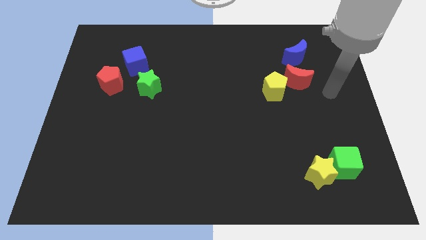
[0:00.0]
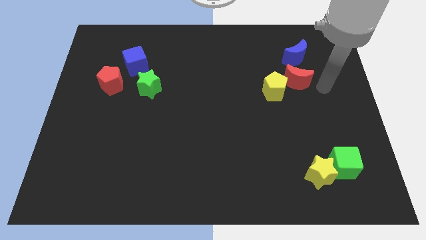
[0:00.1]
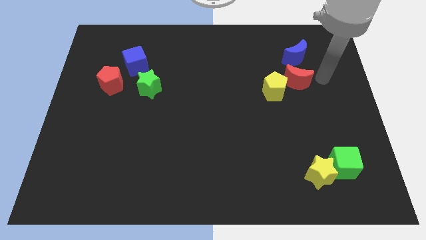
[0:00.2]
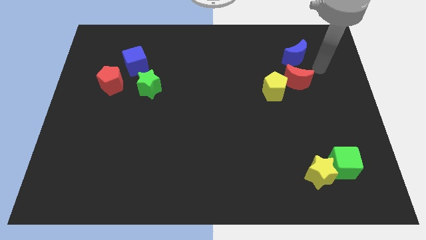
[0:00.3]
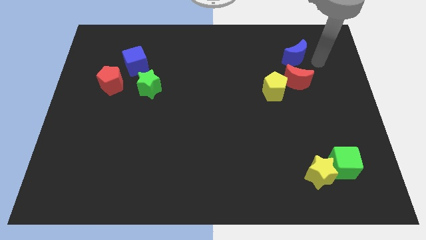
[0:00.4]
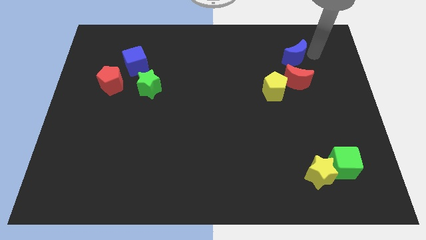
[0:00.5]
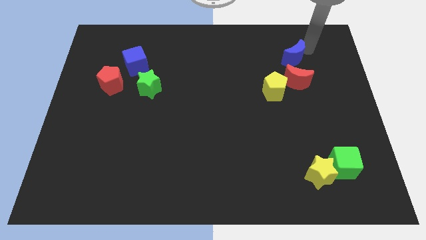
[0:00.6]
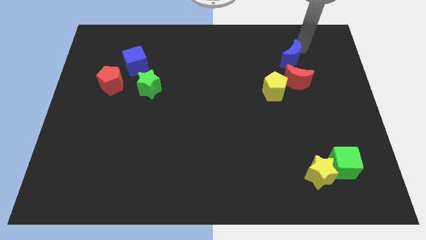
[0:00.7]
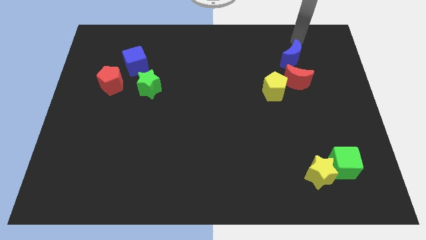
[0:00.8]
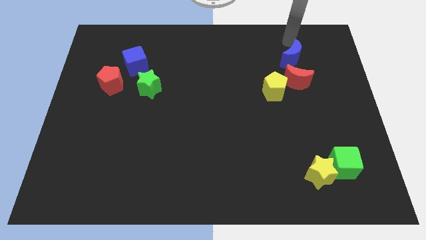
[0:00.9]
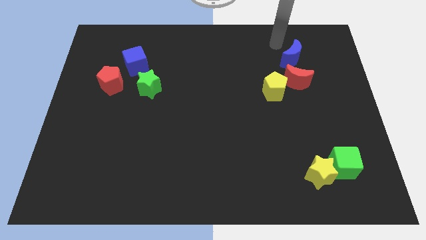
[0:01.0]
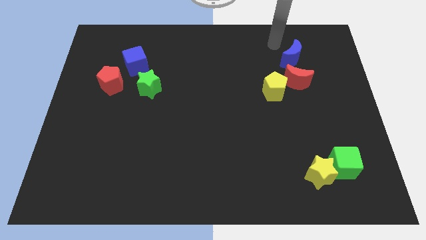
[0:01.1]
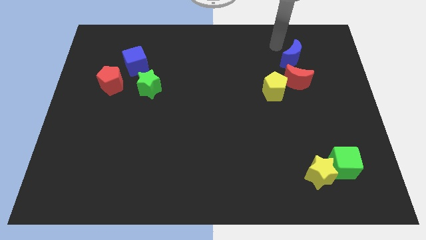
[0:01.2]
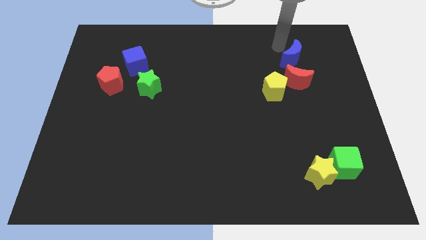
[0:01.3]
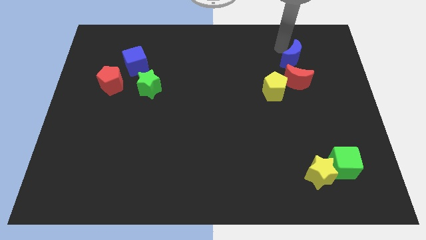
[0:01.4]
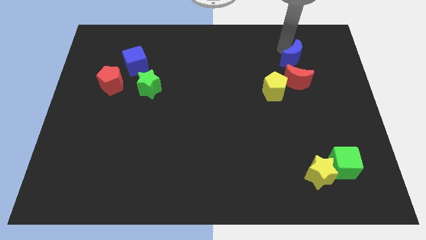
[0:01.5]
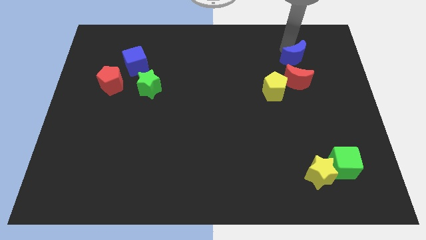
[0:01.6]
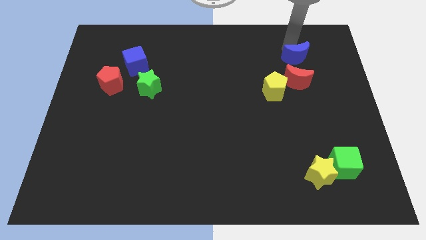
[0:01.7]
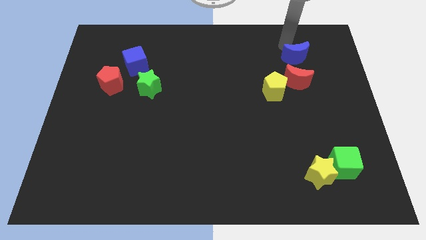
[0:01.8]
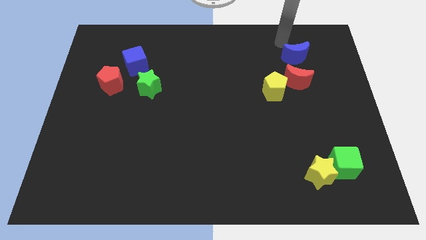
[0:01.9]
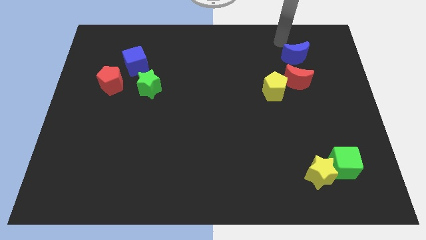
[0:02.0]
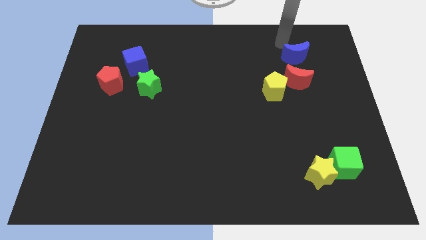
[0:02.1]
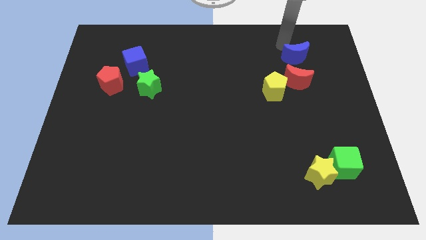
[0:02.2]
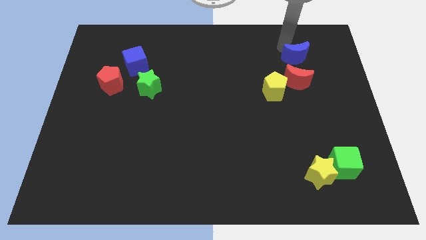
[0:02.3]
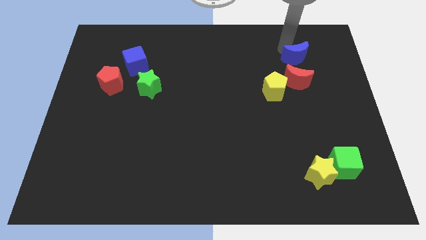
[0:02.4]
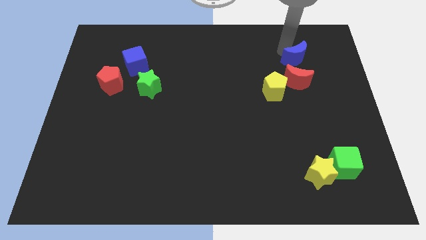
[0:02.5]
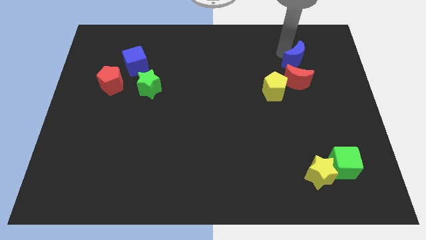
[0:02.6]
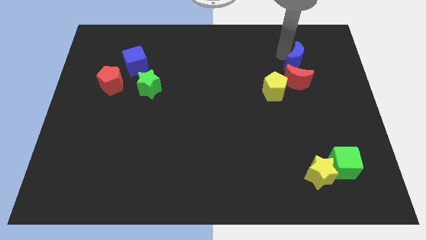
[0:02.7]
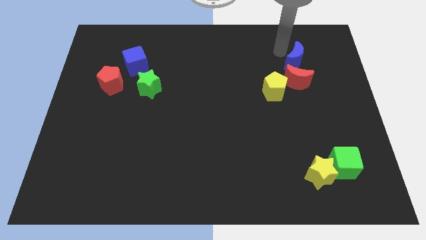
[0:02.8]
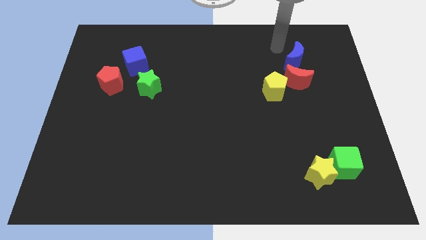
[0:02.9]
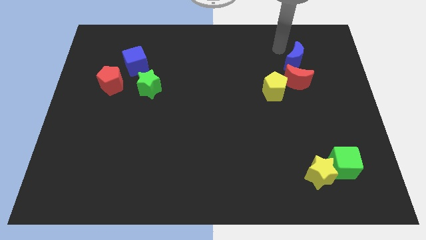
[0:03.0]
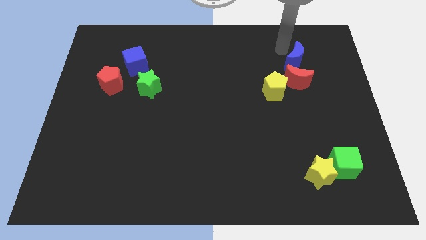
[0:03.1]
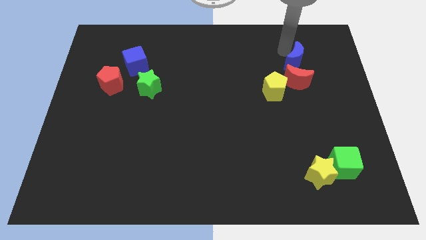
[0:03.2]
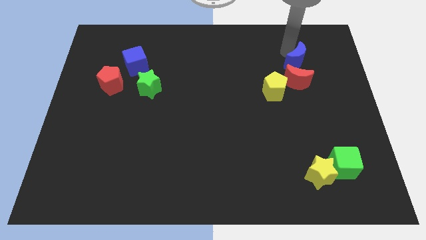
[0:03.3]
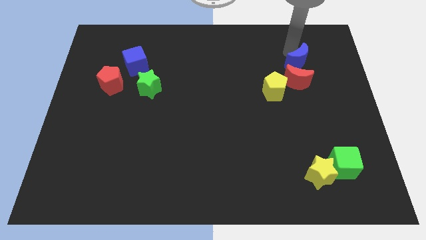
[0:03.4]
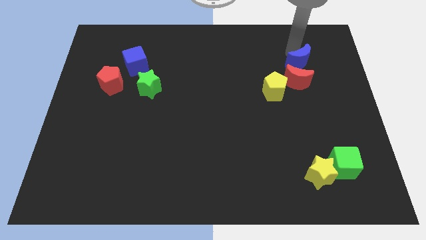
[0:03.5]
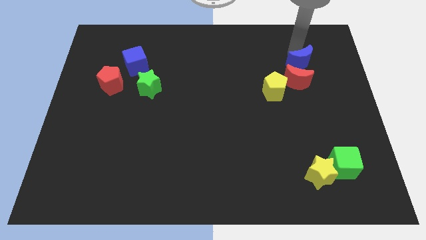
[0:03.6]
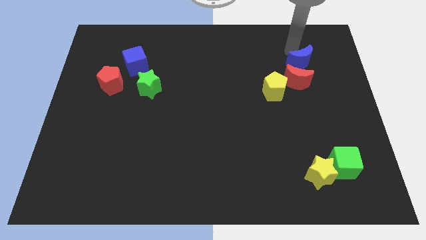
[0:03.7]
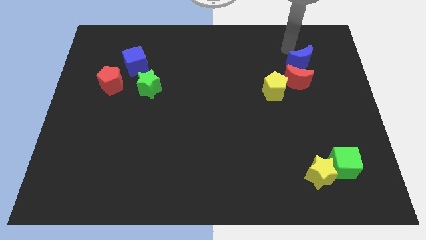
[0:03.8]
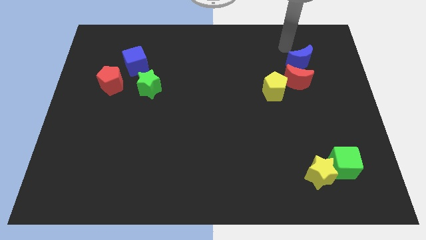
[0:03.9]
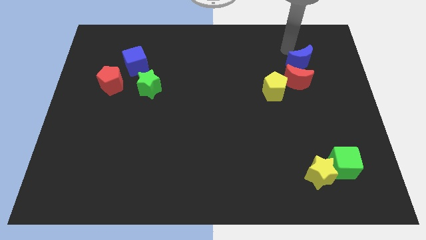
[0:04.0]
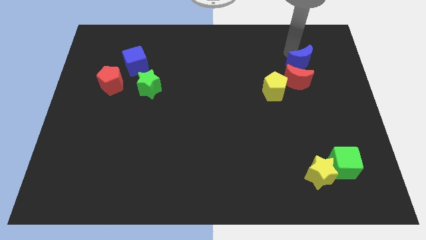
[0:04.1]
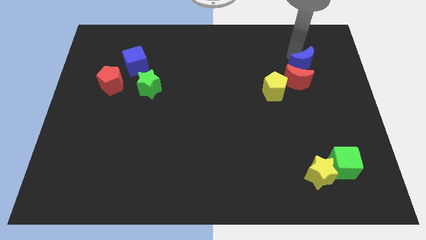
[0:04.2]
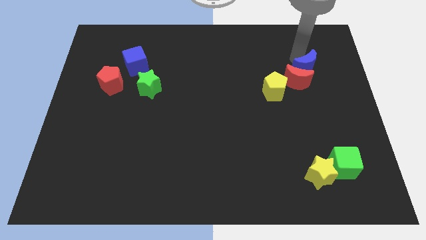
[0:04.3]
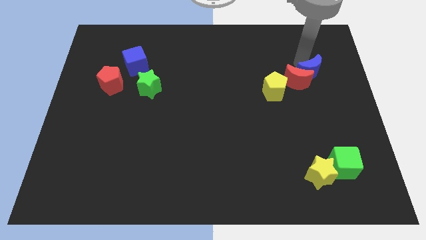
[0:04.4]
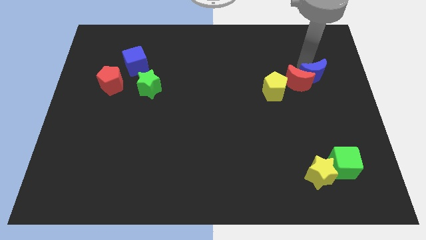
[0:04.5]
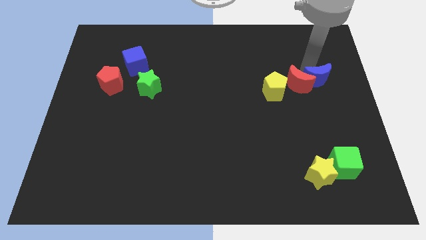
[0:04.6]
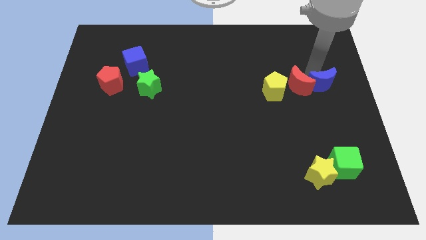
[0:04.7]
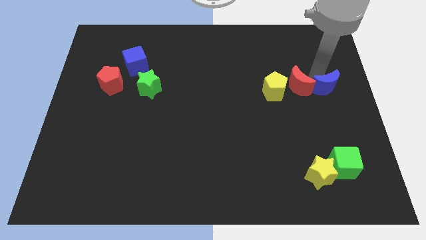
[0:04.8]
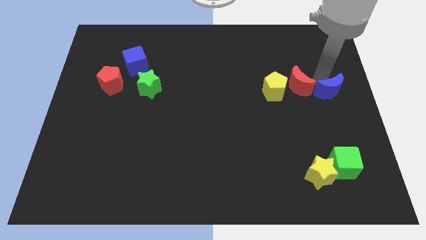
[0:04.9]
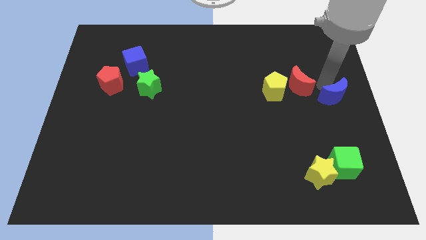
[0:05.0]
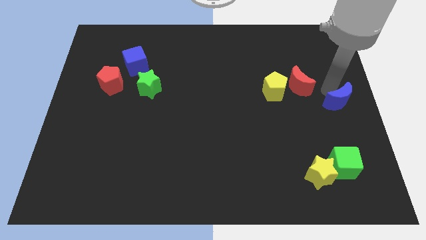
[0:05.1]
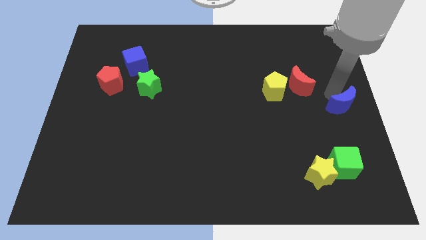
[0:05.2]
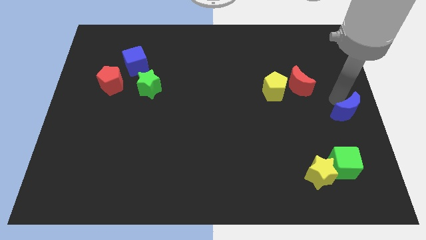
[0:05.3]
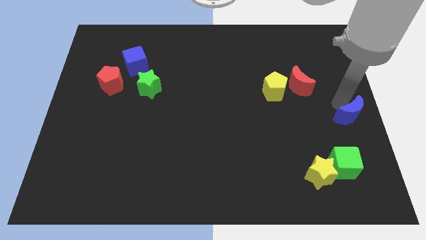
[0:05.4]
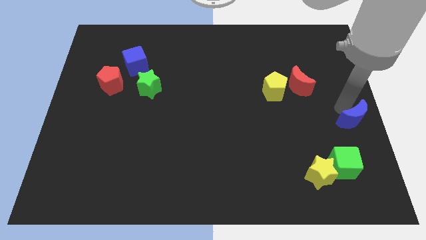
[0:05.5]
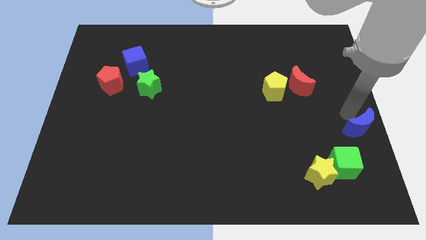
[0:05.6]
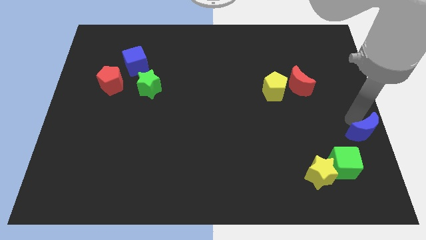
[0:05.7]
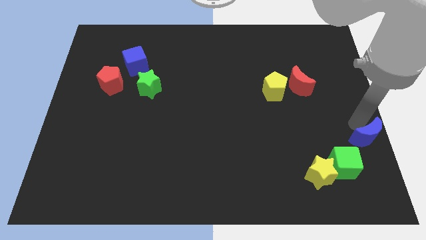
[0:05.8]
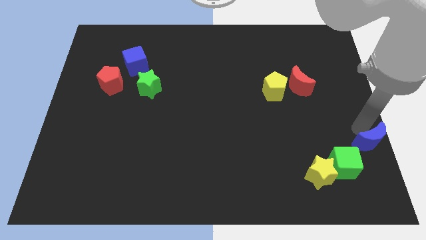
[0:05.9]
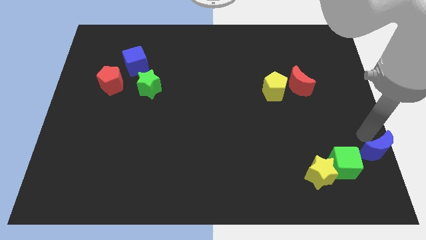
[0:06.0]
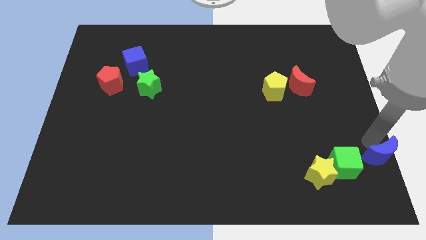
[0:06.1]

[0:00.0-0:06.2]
put the blue moon to the bottom right

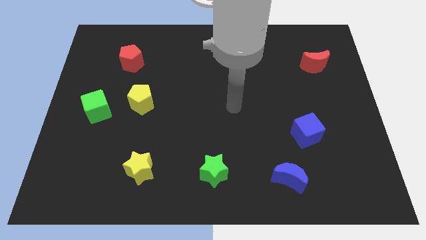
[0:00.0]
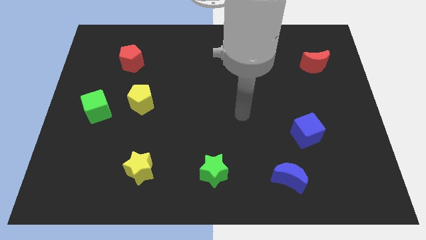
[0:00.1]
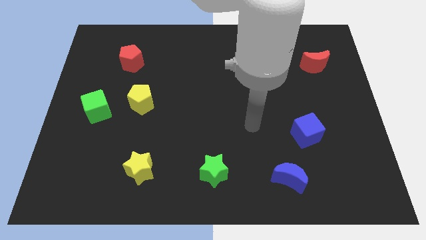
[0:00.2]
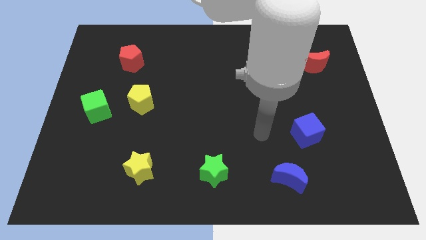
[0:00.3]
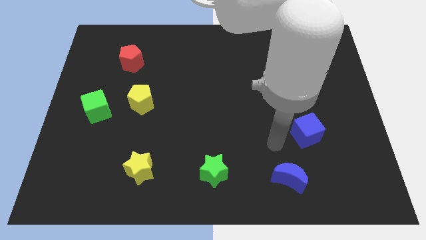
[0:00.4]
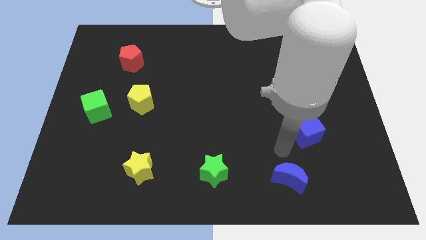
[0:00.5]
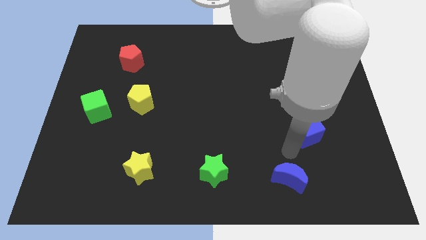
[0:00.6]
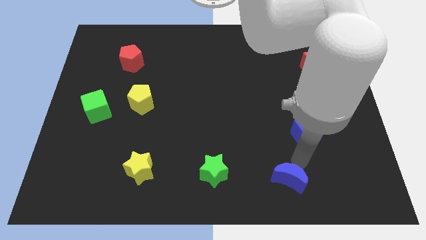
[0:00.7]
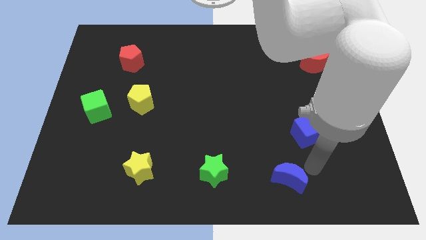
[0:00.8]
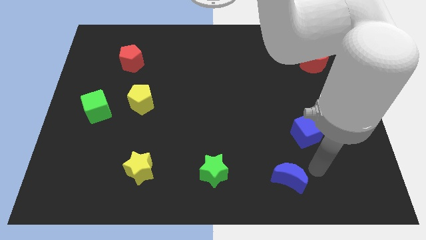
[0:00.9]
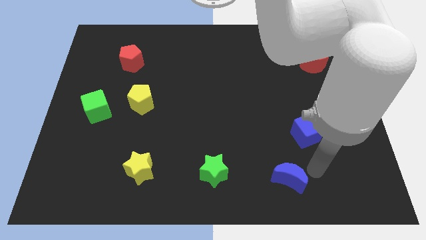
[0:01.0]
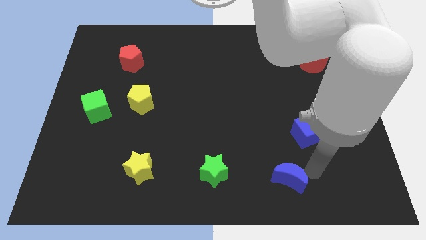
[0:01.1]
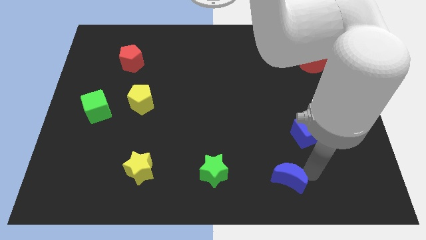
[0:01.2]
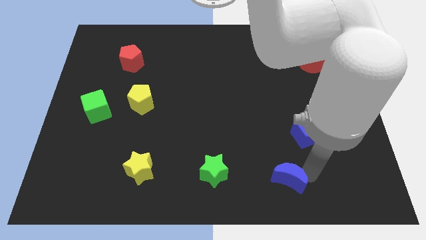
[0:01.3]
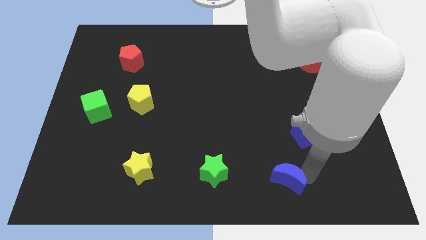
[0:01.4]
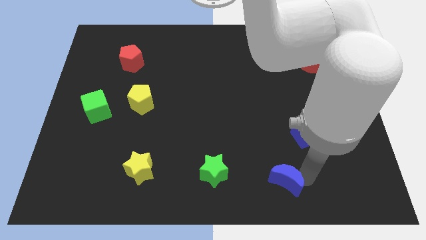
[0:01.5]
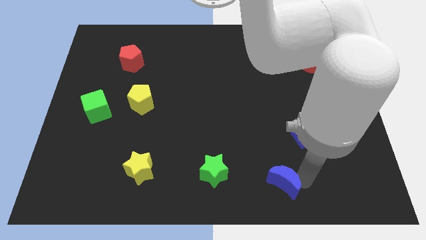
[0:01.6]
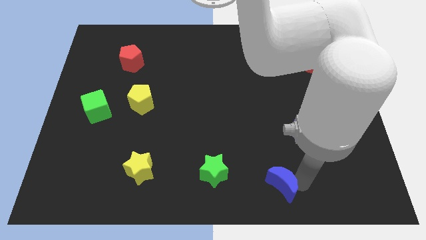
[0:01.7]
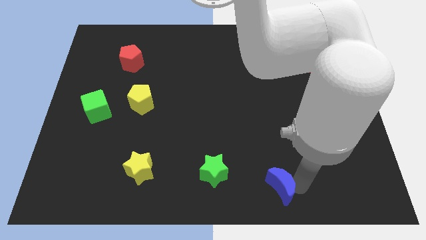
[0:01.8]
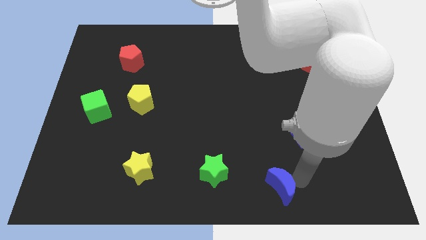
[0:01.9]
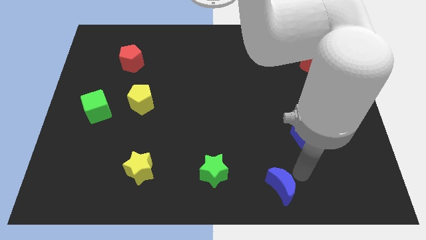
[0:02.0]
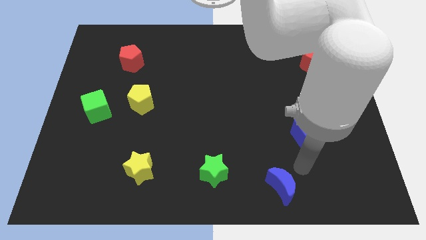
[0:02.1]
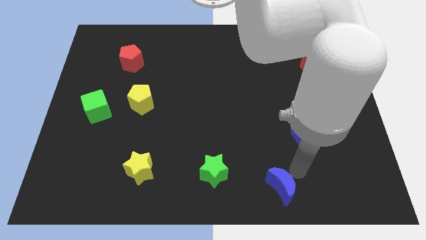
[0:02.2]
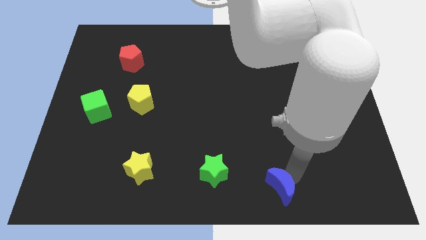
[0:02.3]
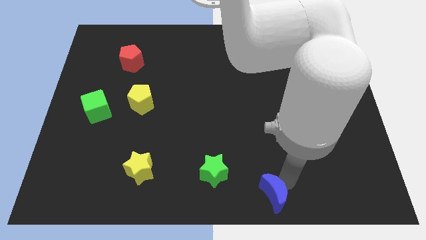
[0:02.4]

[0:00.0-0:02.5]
move the blue moon to the bottom
